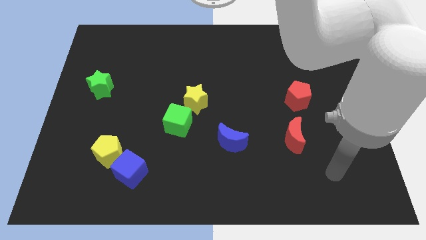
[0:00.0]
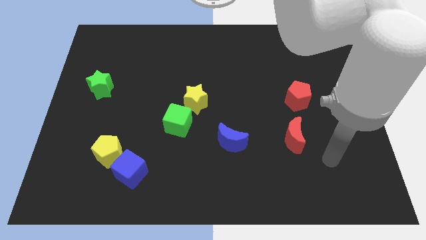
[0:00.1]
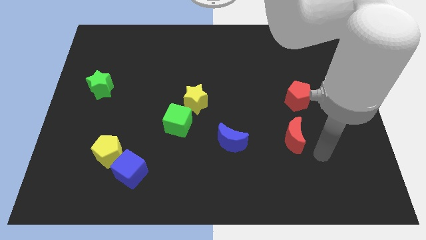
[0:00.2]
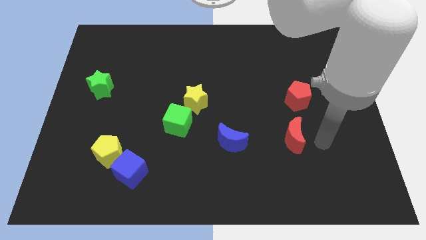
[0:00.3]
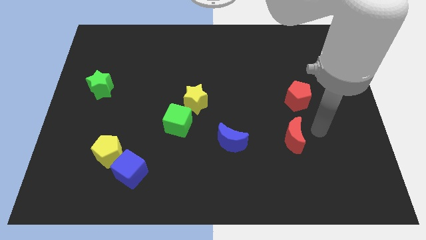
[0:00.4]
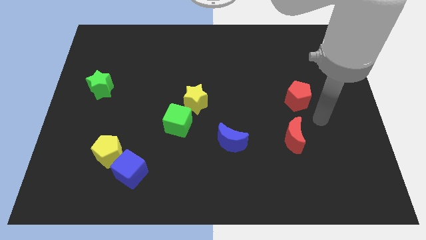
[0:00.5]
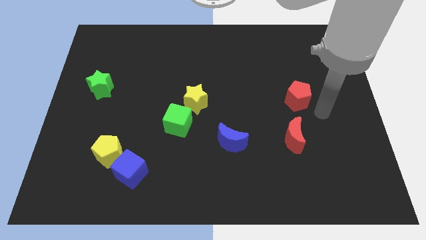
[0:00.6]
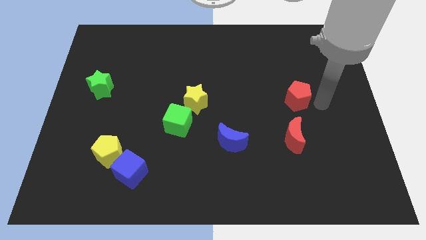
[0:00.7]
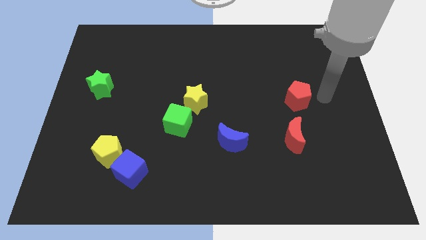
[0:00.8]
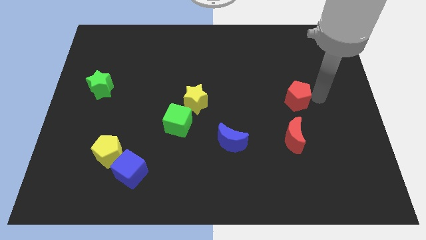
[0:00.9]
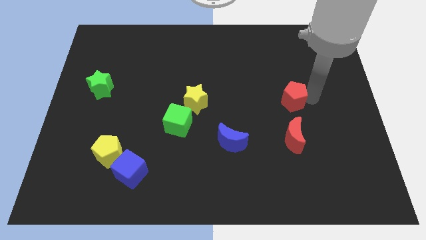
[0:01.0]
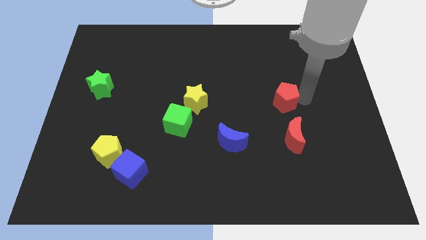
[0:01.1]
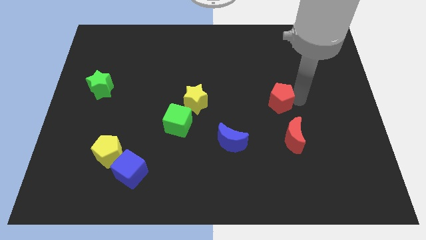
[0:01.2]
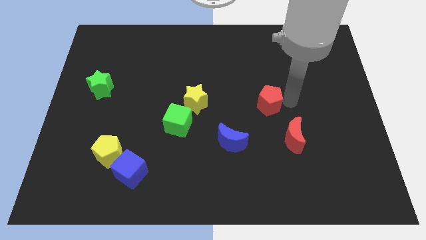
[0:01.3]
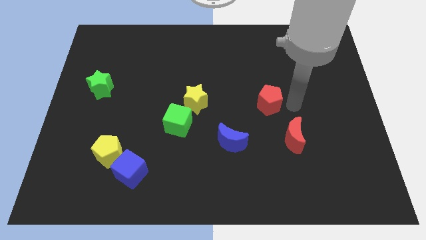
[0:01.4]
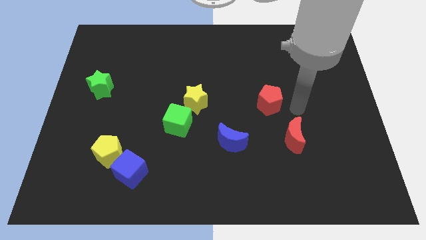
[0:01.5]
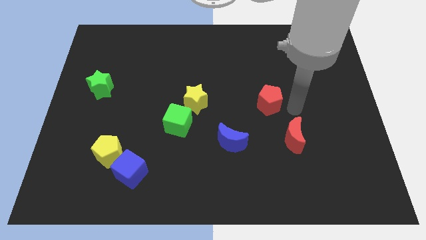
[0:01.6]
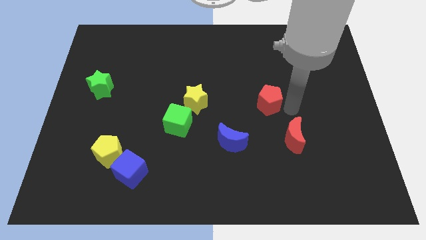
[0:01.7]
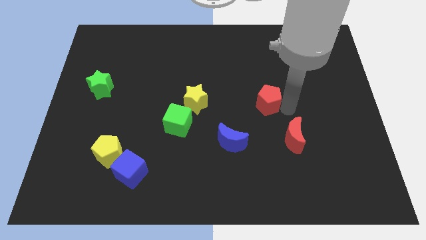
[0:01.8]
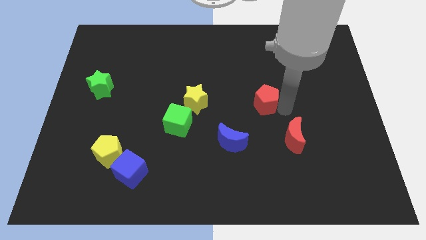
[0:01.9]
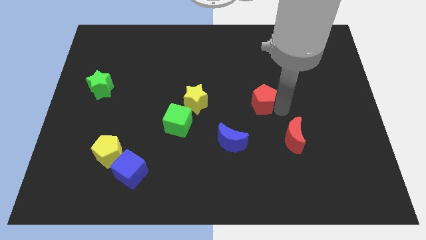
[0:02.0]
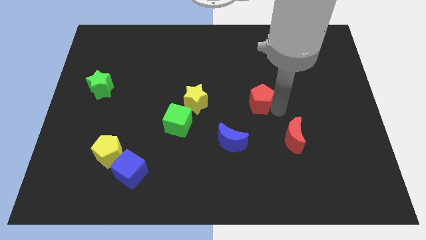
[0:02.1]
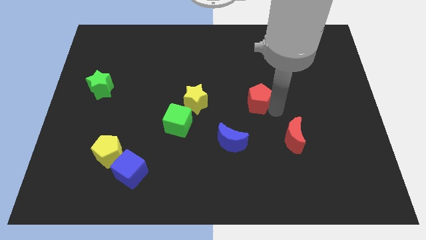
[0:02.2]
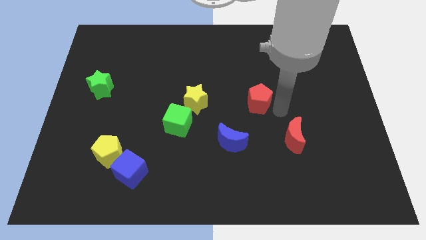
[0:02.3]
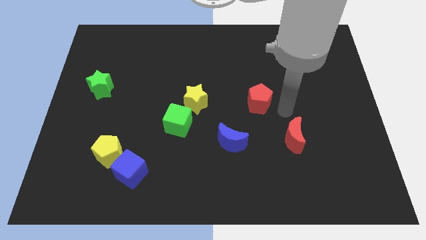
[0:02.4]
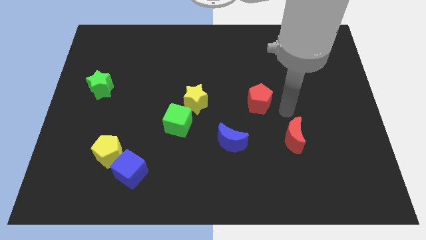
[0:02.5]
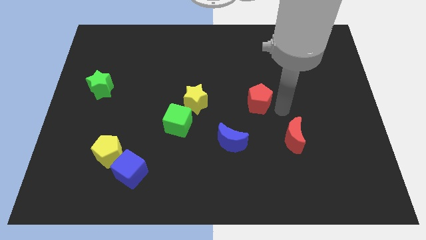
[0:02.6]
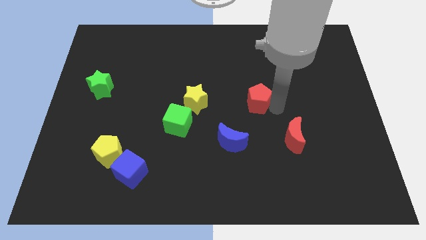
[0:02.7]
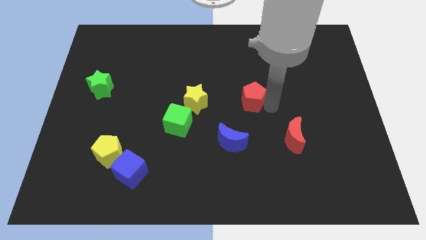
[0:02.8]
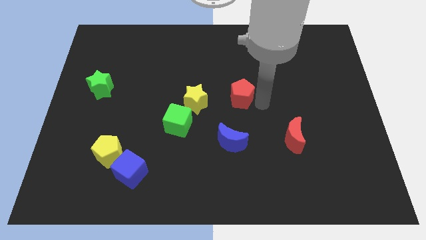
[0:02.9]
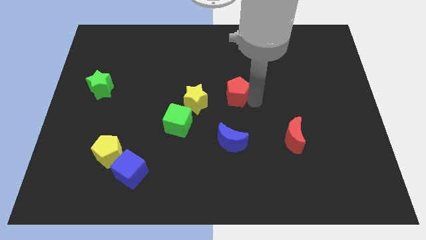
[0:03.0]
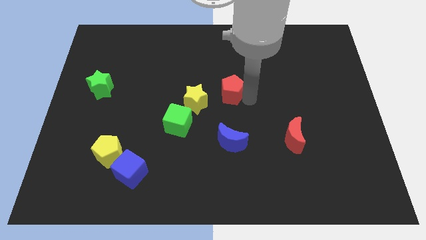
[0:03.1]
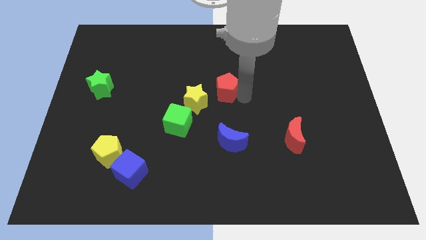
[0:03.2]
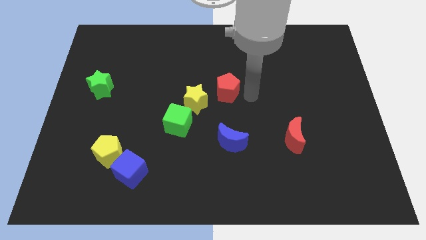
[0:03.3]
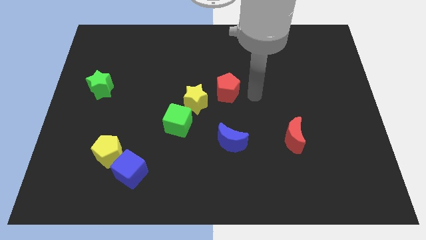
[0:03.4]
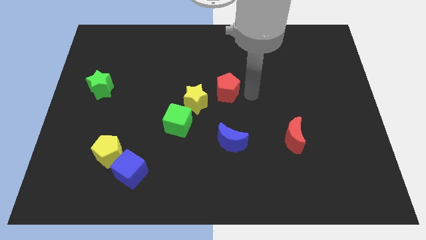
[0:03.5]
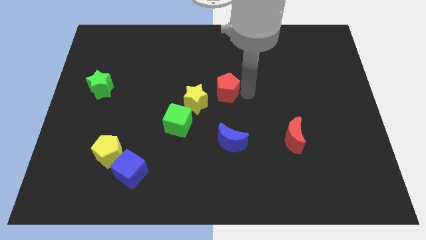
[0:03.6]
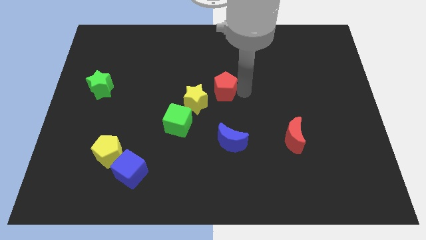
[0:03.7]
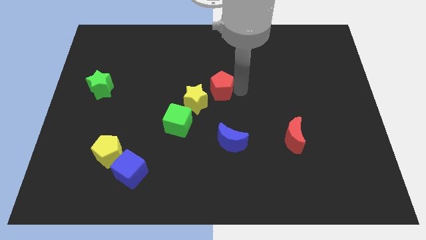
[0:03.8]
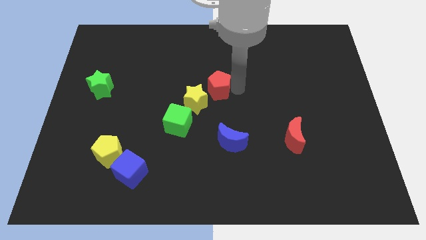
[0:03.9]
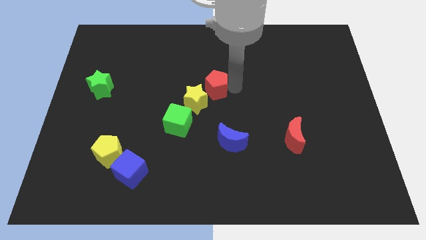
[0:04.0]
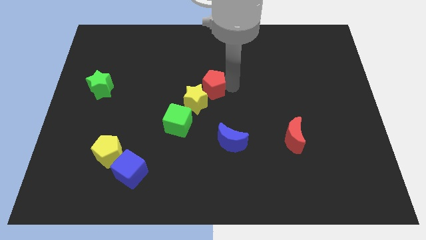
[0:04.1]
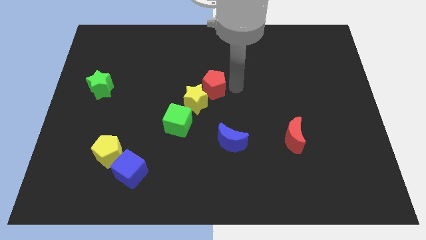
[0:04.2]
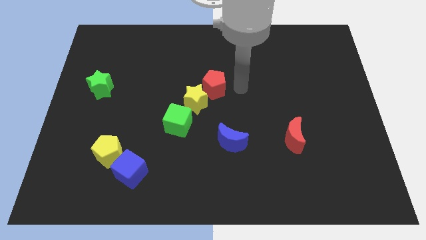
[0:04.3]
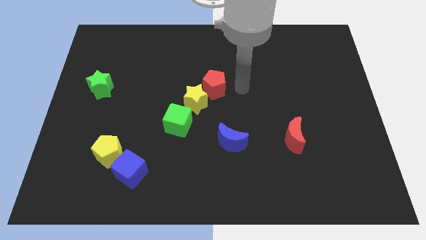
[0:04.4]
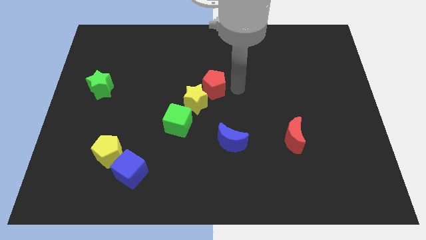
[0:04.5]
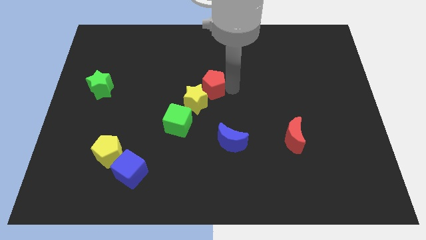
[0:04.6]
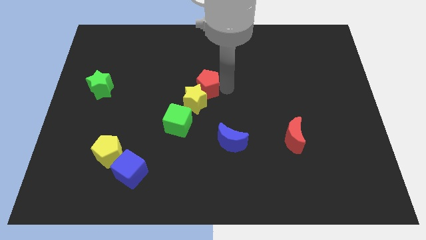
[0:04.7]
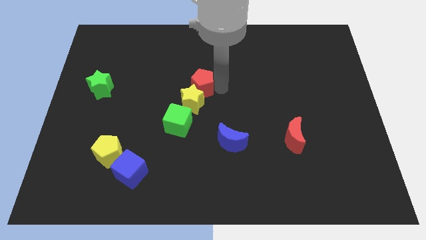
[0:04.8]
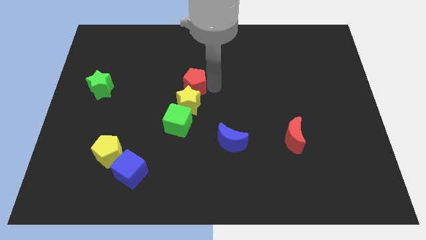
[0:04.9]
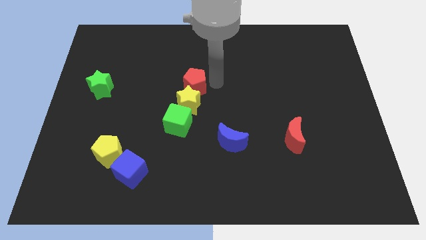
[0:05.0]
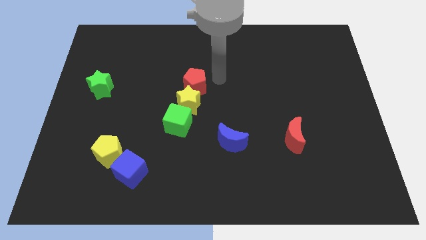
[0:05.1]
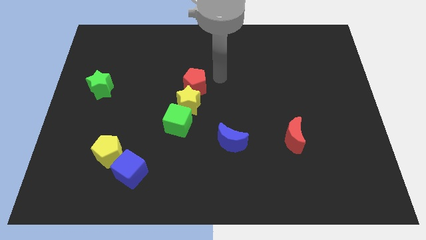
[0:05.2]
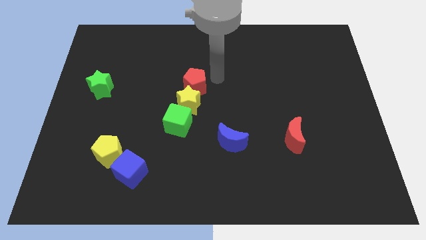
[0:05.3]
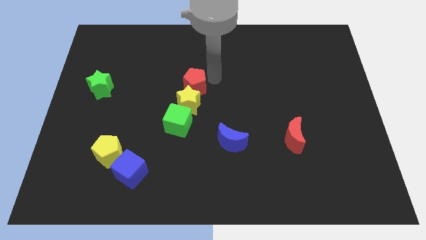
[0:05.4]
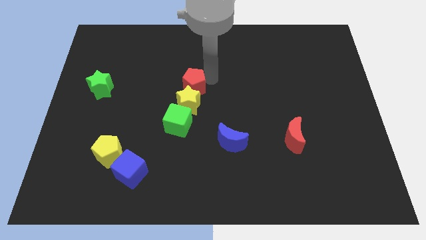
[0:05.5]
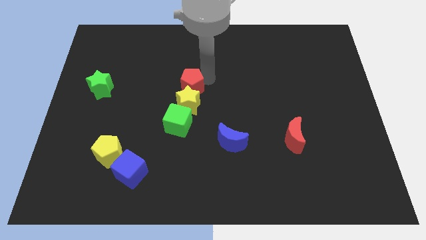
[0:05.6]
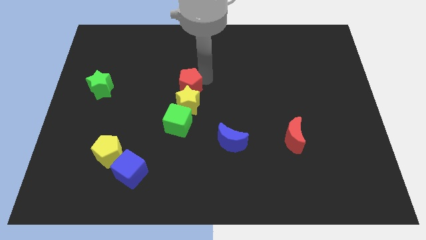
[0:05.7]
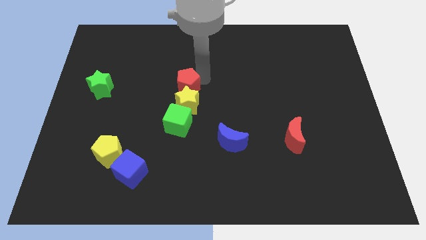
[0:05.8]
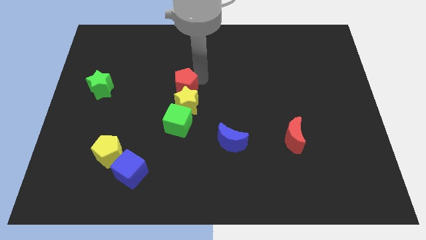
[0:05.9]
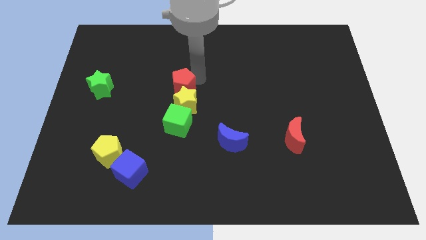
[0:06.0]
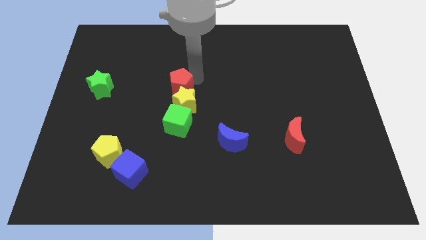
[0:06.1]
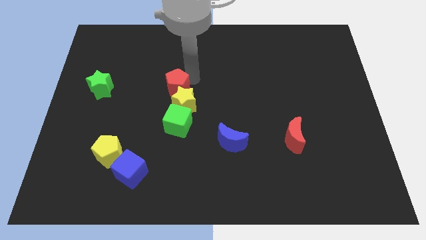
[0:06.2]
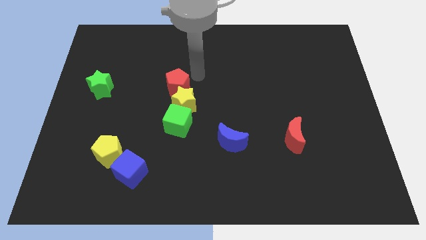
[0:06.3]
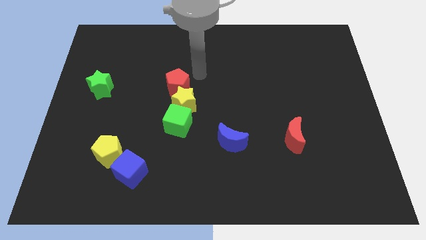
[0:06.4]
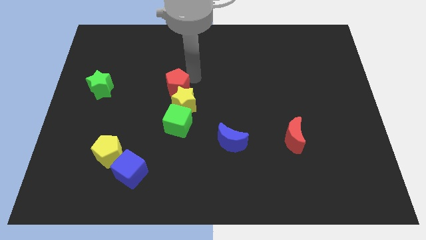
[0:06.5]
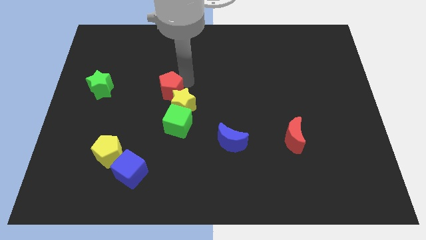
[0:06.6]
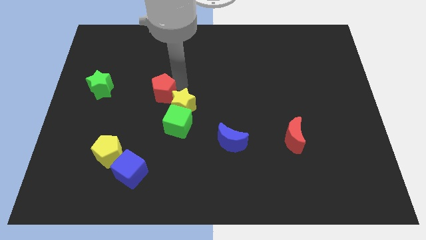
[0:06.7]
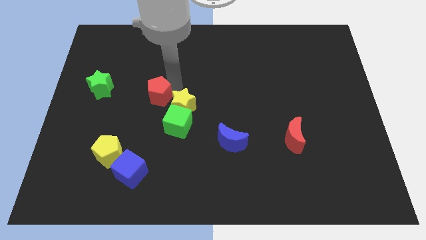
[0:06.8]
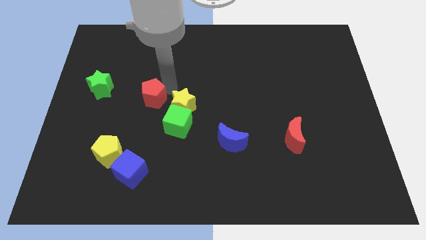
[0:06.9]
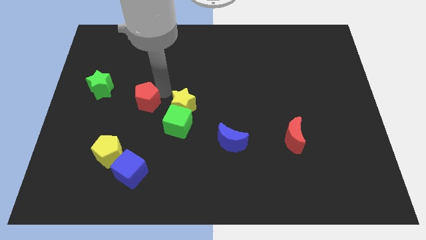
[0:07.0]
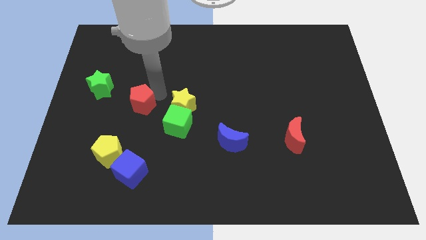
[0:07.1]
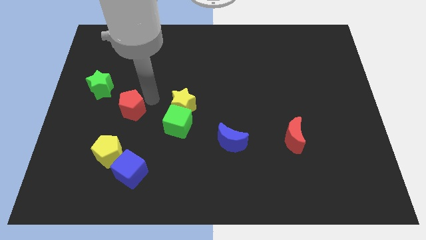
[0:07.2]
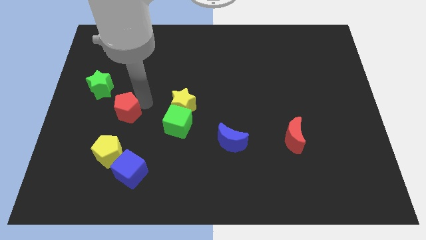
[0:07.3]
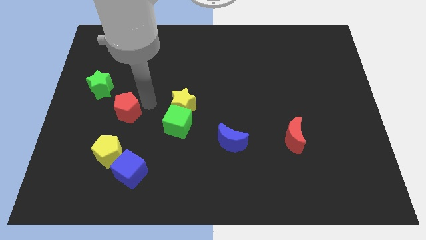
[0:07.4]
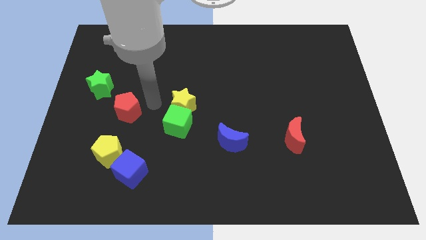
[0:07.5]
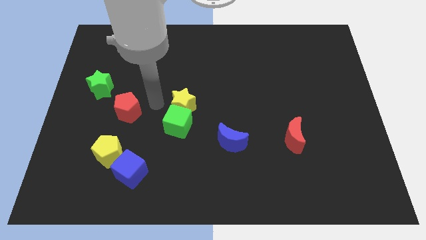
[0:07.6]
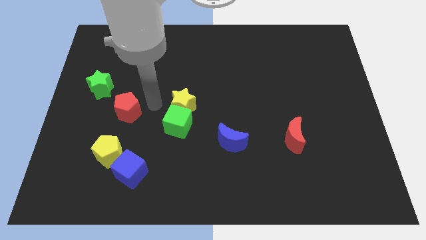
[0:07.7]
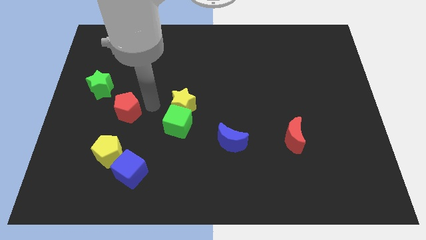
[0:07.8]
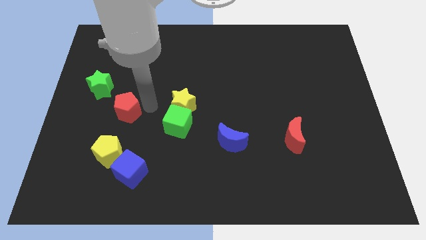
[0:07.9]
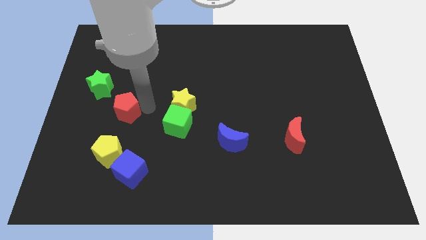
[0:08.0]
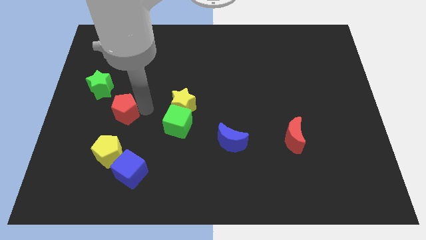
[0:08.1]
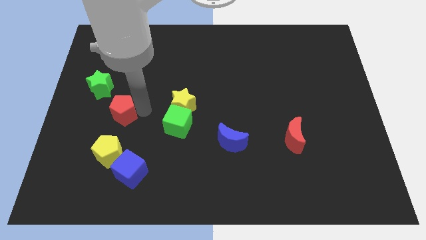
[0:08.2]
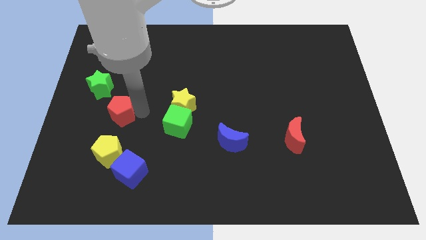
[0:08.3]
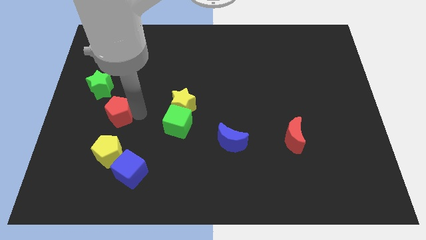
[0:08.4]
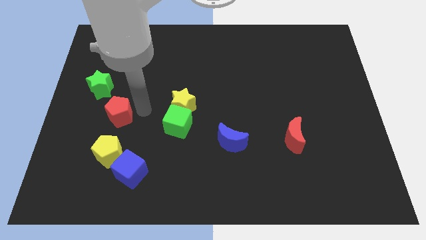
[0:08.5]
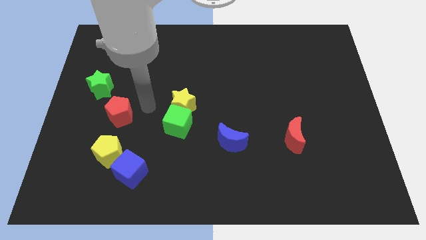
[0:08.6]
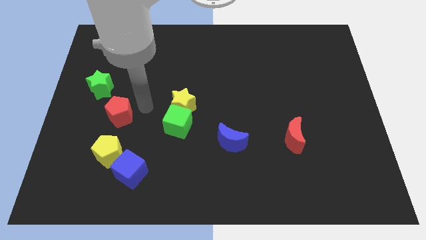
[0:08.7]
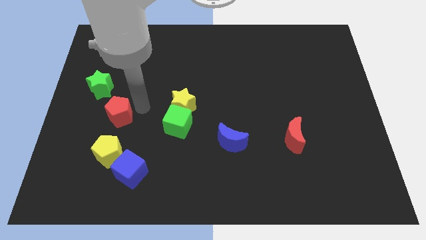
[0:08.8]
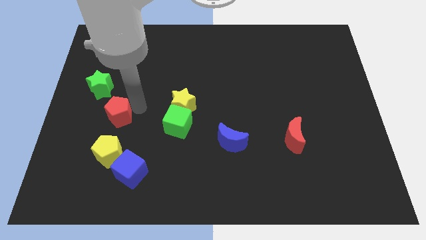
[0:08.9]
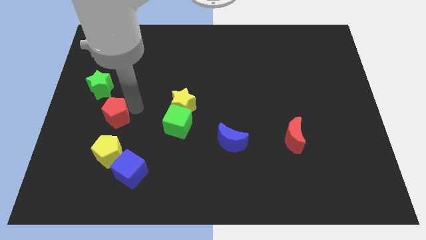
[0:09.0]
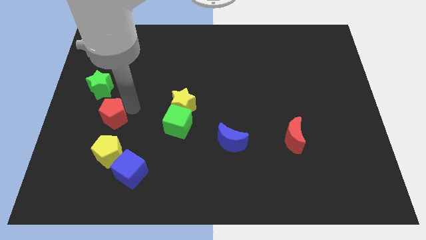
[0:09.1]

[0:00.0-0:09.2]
put the red pentagon to the bottom side of the green star
